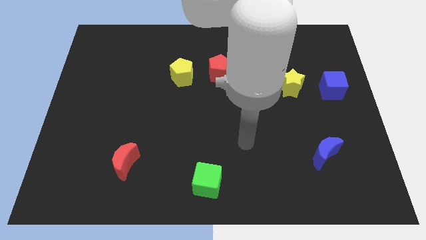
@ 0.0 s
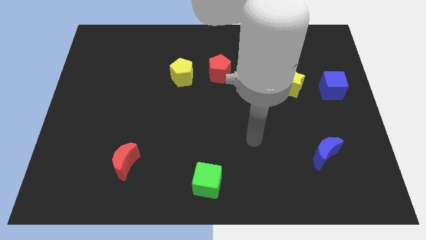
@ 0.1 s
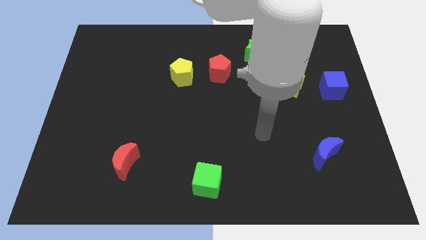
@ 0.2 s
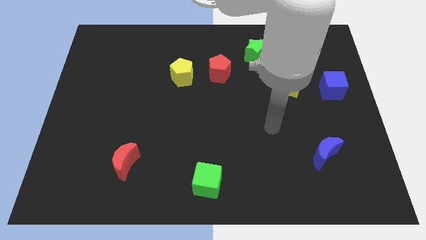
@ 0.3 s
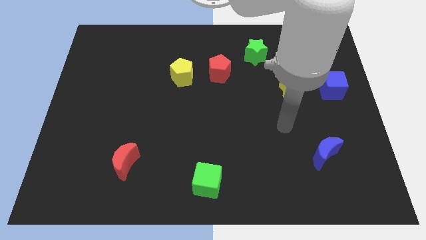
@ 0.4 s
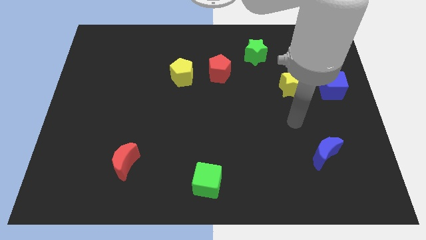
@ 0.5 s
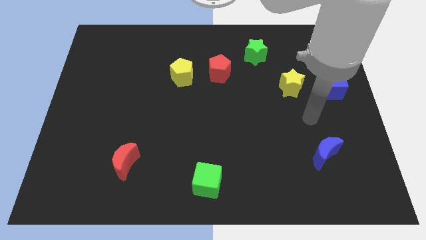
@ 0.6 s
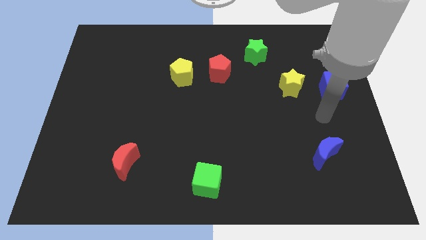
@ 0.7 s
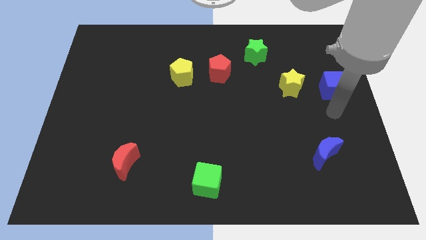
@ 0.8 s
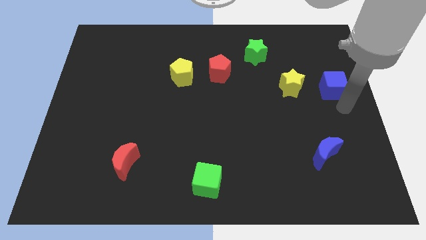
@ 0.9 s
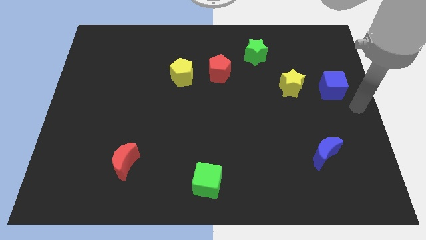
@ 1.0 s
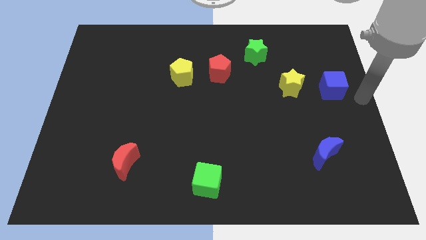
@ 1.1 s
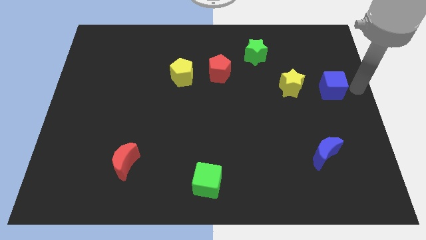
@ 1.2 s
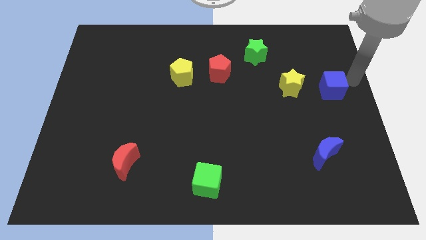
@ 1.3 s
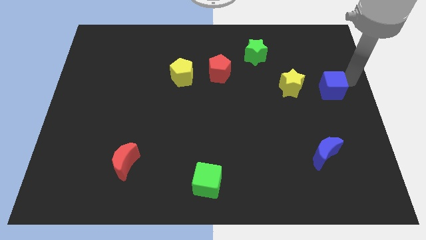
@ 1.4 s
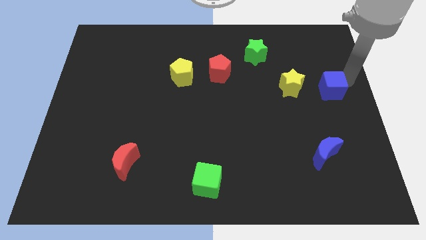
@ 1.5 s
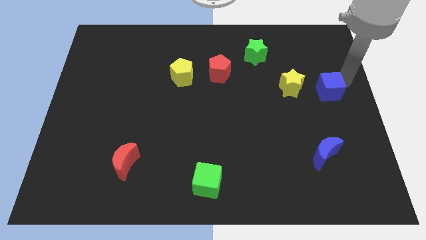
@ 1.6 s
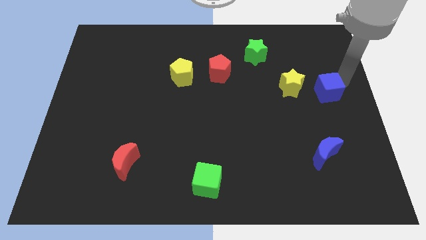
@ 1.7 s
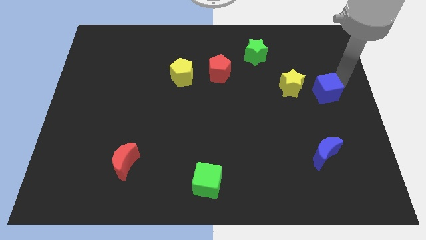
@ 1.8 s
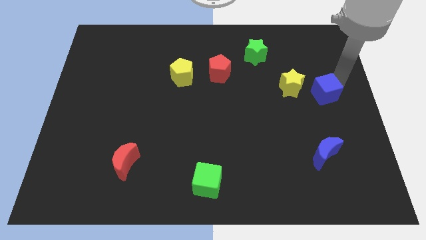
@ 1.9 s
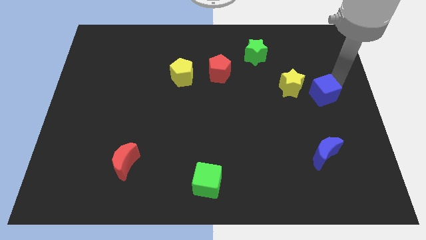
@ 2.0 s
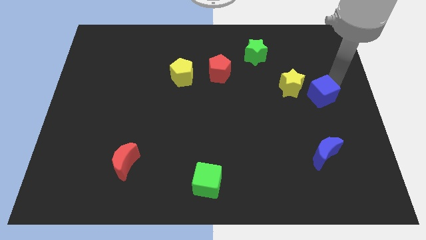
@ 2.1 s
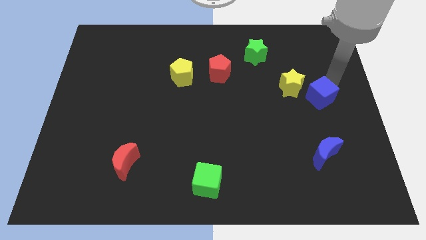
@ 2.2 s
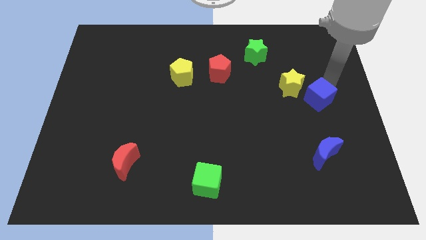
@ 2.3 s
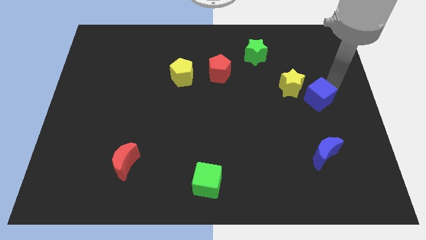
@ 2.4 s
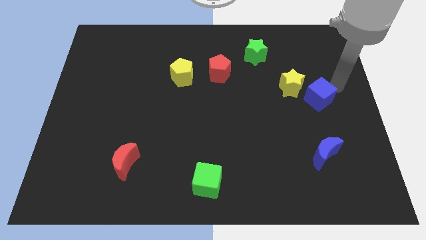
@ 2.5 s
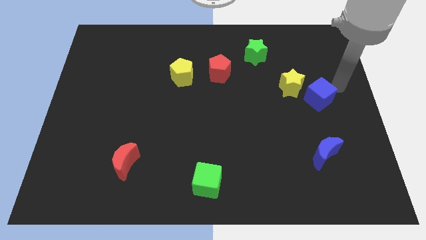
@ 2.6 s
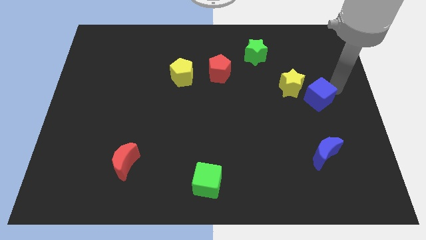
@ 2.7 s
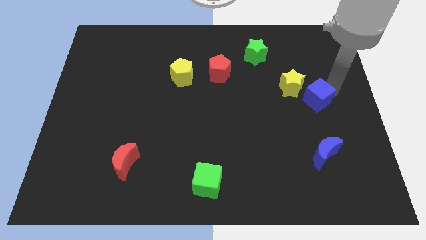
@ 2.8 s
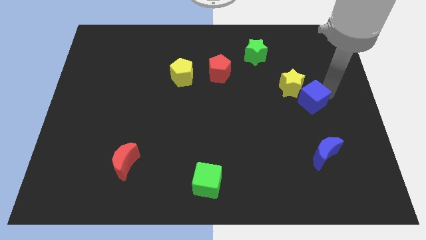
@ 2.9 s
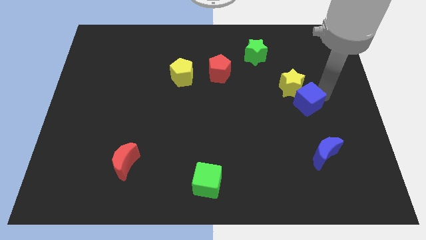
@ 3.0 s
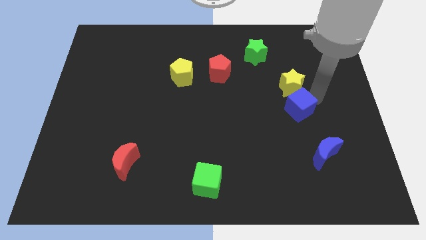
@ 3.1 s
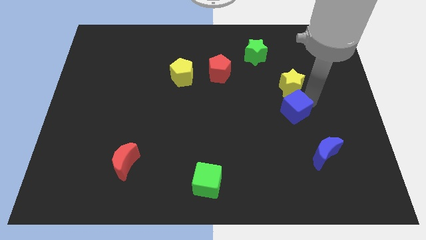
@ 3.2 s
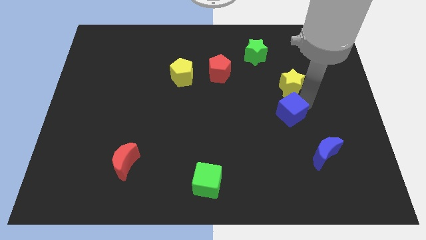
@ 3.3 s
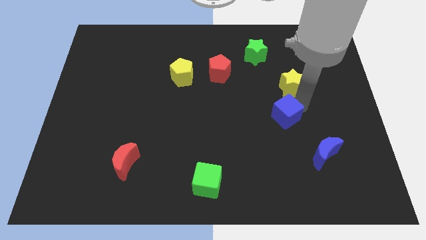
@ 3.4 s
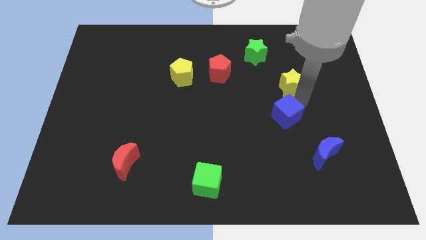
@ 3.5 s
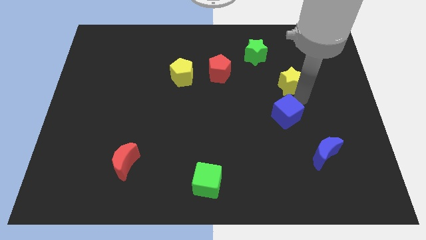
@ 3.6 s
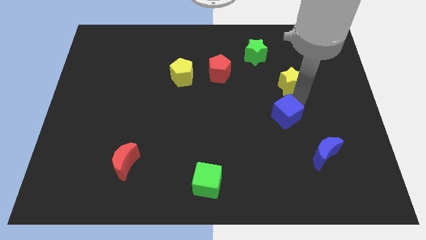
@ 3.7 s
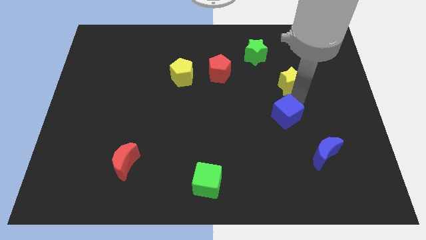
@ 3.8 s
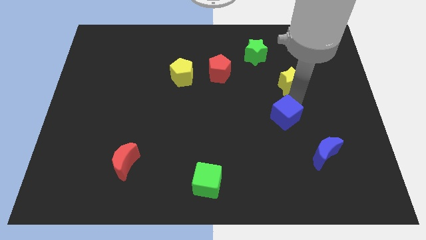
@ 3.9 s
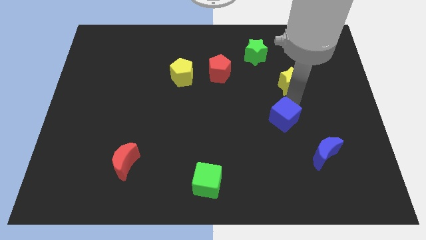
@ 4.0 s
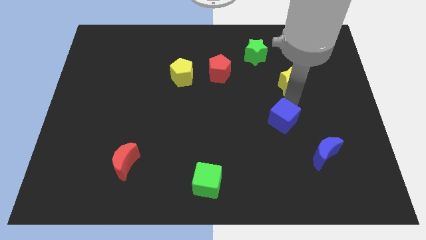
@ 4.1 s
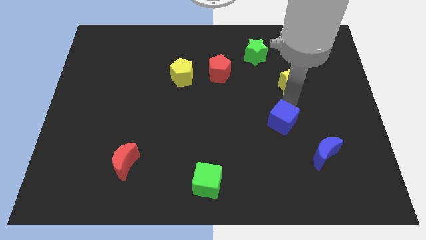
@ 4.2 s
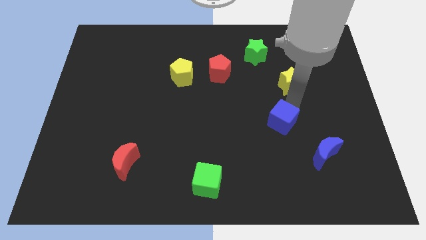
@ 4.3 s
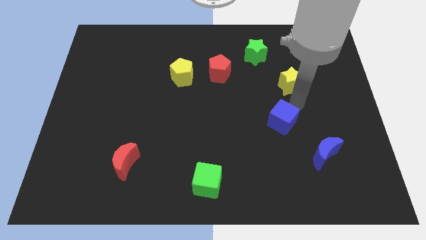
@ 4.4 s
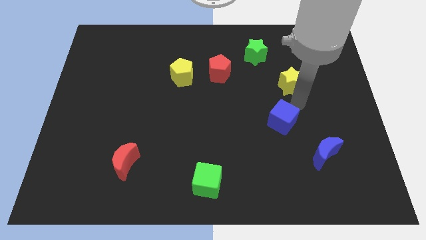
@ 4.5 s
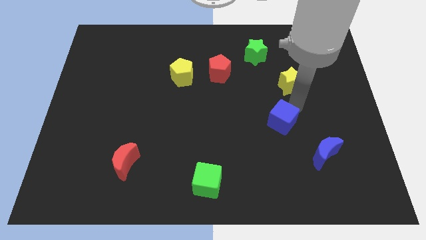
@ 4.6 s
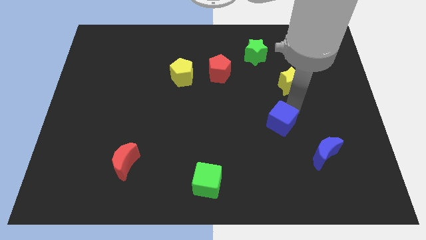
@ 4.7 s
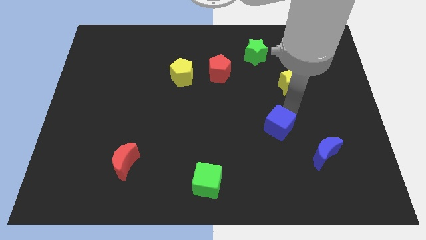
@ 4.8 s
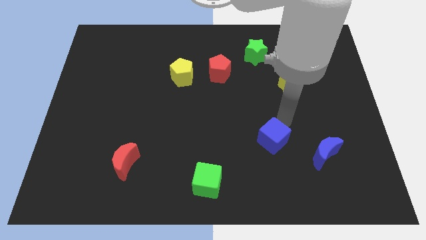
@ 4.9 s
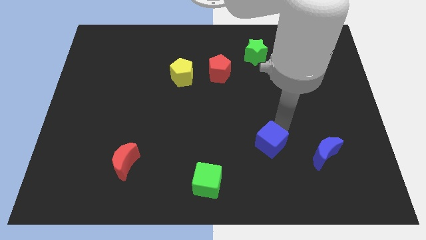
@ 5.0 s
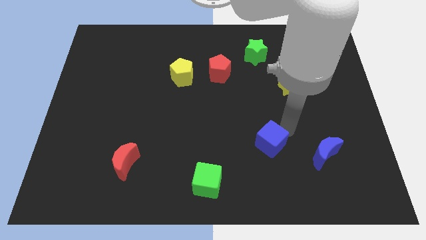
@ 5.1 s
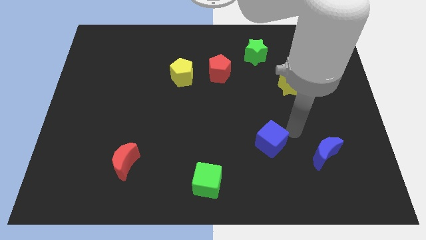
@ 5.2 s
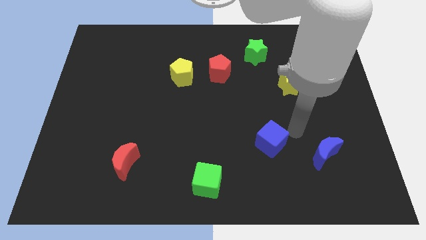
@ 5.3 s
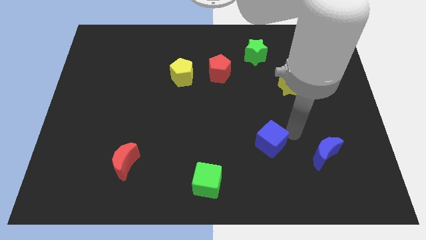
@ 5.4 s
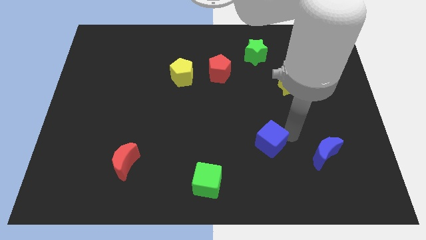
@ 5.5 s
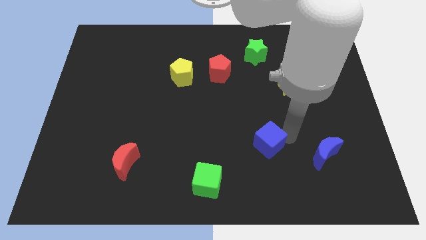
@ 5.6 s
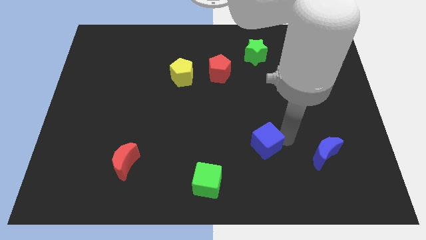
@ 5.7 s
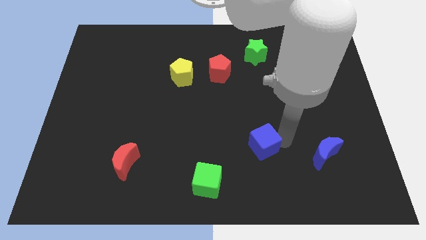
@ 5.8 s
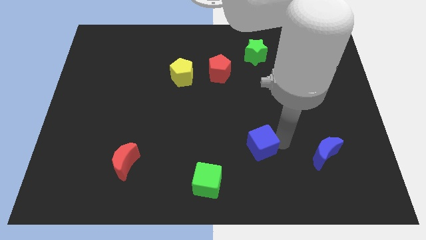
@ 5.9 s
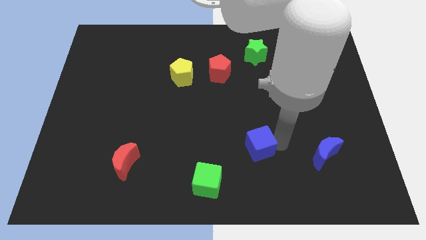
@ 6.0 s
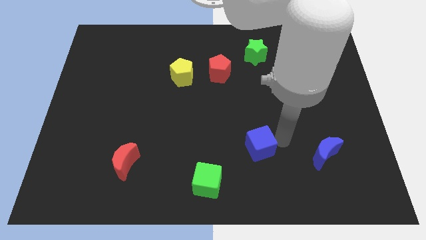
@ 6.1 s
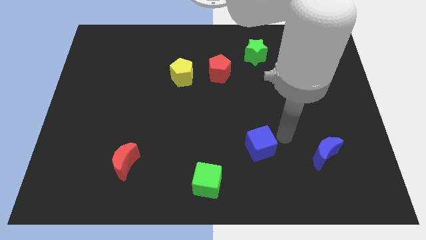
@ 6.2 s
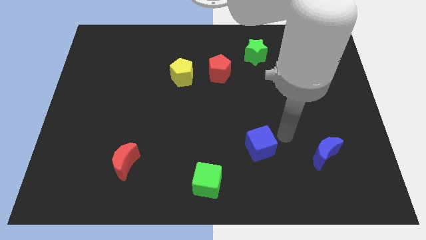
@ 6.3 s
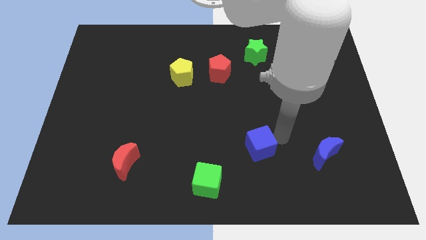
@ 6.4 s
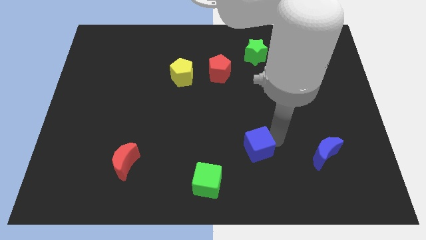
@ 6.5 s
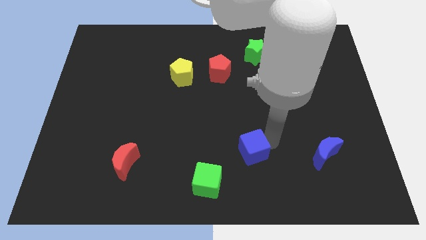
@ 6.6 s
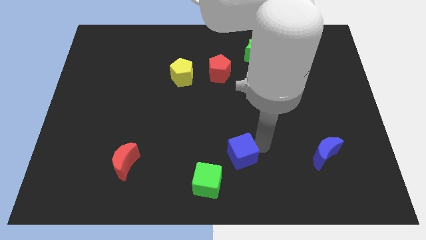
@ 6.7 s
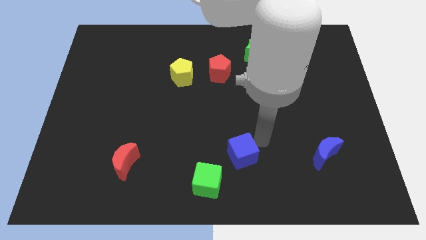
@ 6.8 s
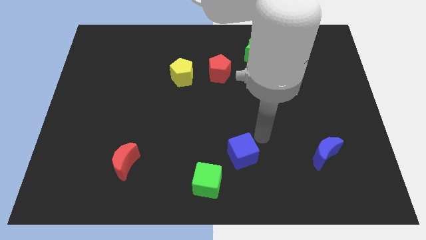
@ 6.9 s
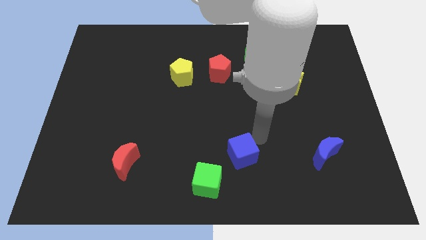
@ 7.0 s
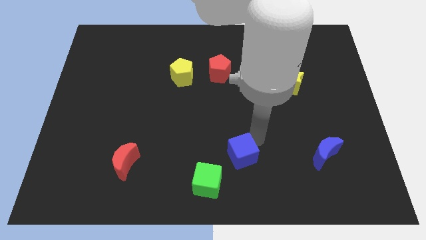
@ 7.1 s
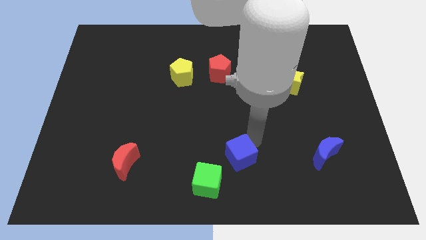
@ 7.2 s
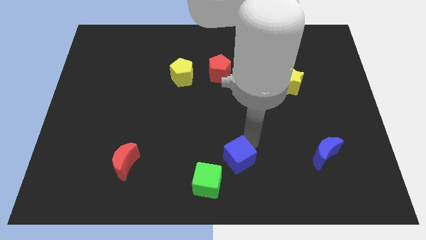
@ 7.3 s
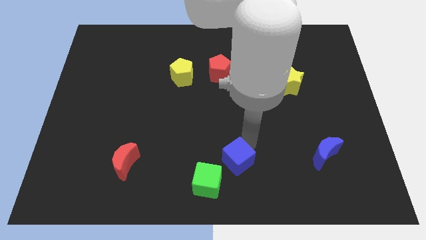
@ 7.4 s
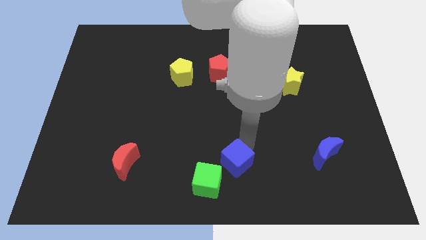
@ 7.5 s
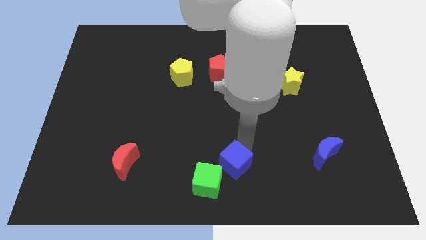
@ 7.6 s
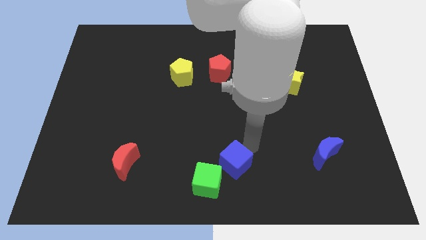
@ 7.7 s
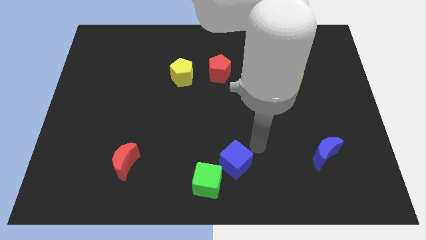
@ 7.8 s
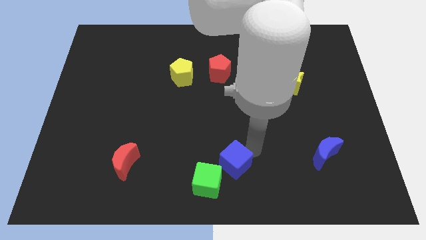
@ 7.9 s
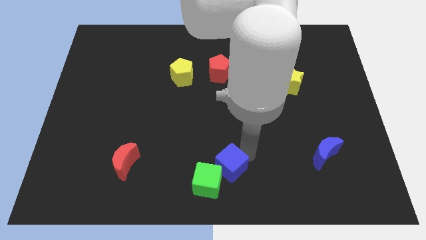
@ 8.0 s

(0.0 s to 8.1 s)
put the blue cube next to the green cube
